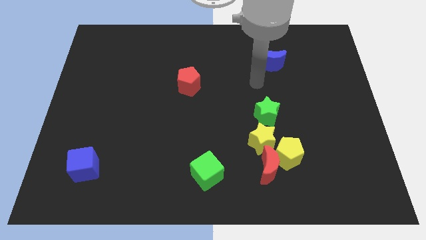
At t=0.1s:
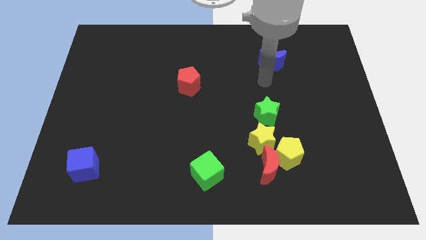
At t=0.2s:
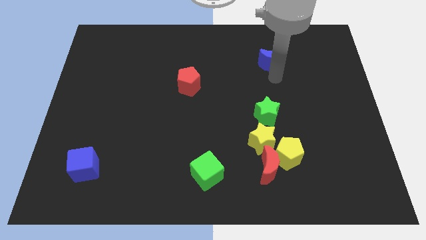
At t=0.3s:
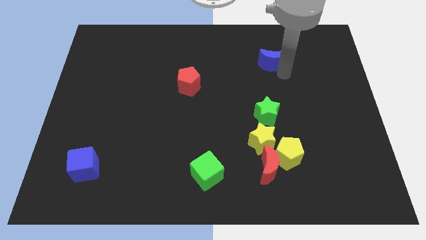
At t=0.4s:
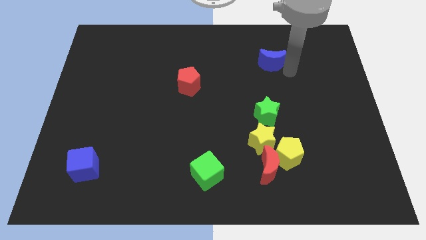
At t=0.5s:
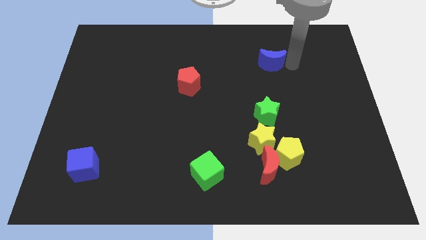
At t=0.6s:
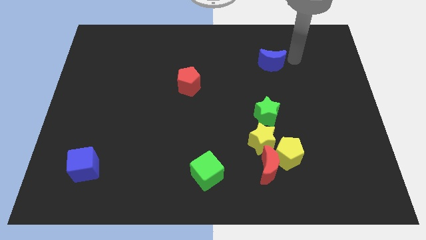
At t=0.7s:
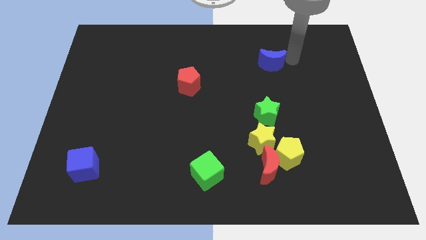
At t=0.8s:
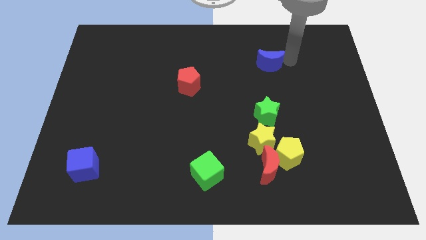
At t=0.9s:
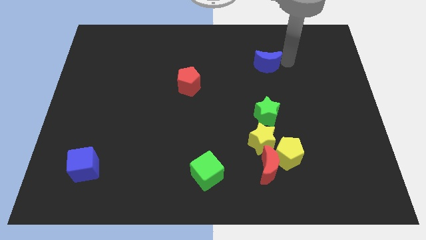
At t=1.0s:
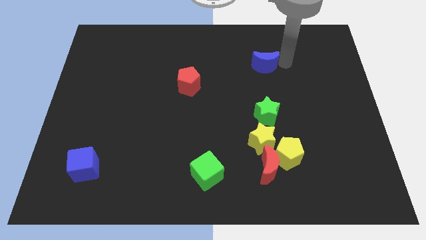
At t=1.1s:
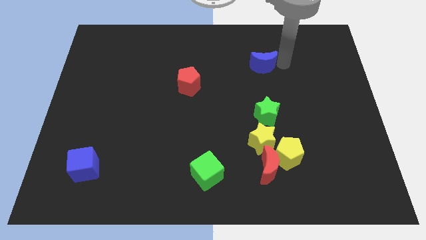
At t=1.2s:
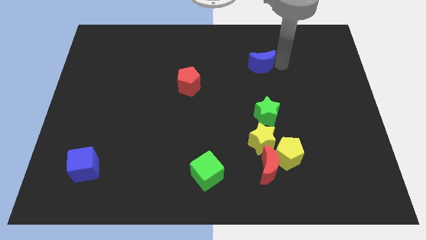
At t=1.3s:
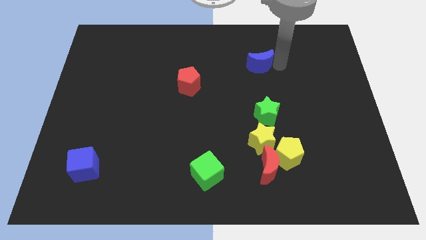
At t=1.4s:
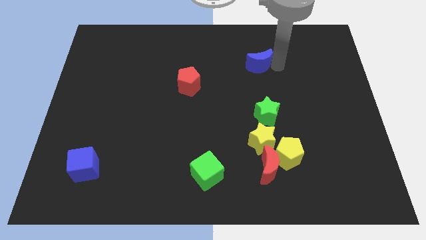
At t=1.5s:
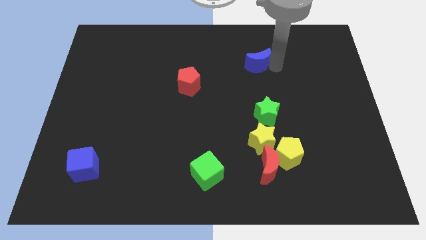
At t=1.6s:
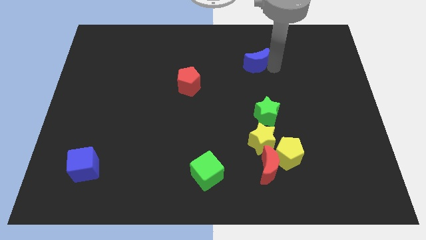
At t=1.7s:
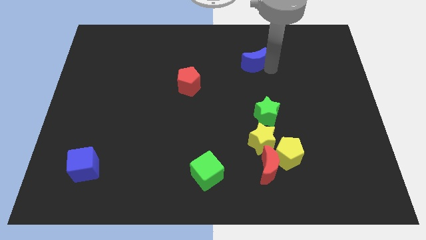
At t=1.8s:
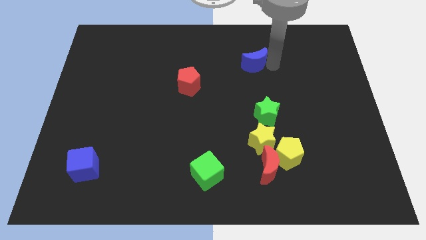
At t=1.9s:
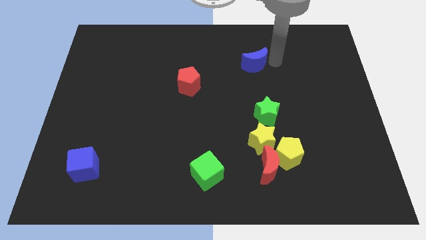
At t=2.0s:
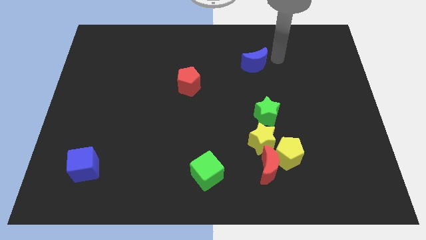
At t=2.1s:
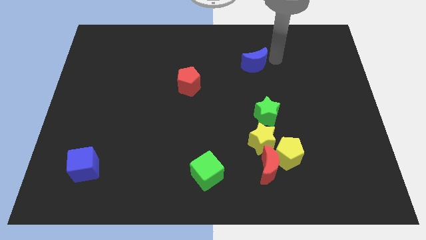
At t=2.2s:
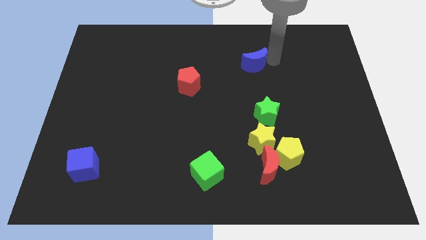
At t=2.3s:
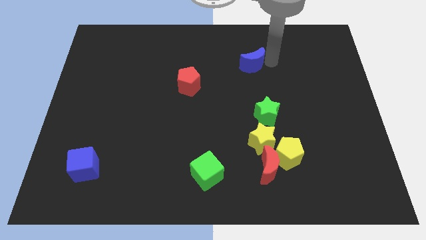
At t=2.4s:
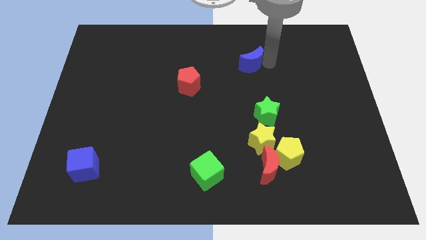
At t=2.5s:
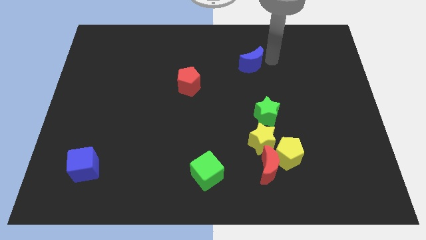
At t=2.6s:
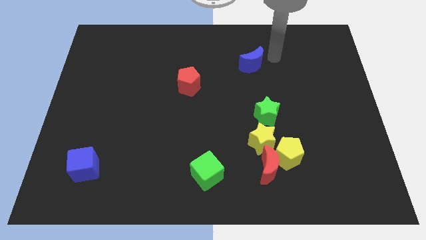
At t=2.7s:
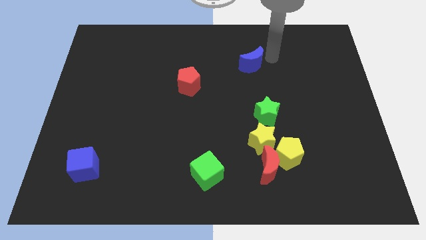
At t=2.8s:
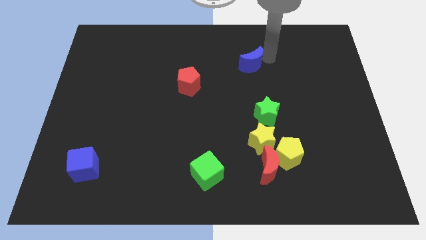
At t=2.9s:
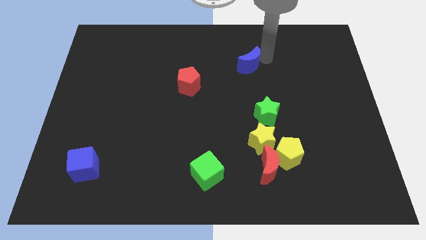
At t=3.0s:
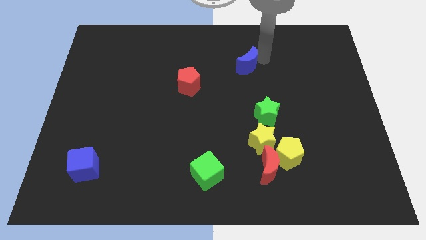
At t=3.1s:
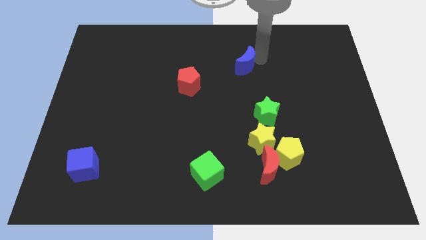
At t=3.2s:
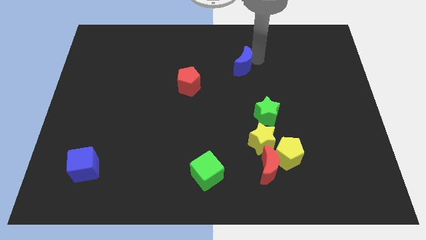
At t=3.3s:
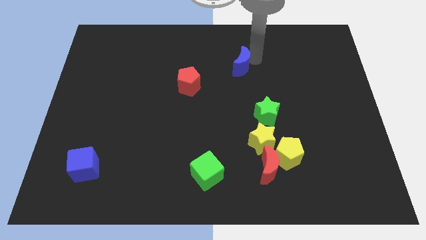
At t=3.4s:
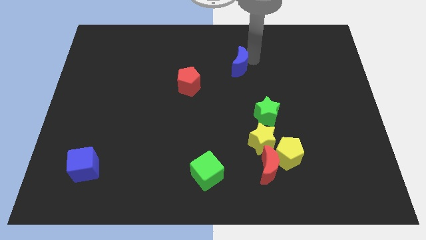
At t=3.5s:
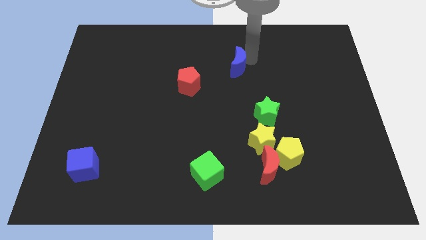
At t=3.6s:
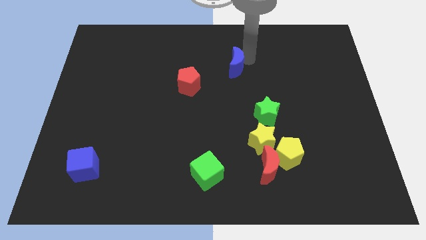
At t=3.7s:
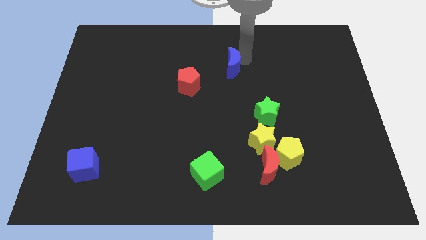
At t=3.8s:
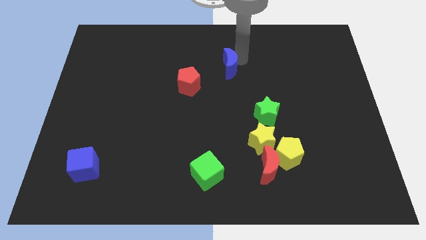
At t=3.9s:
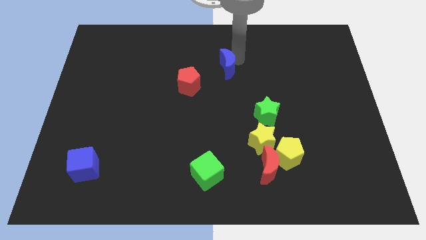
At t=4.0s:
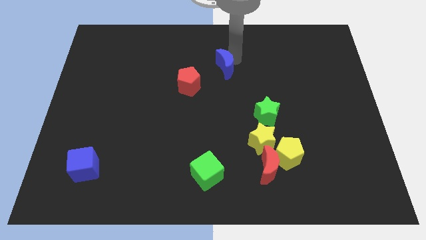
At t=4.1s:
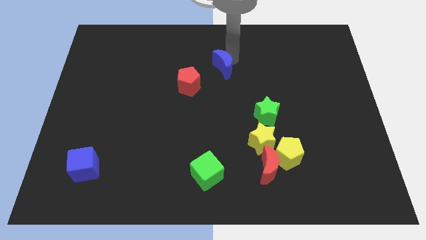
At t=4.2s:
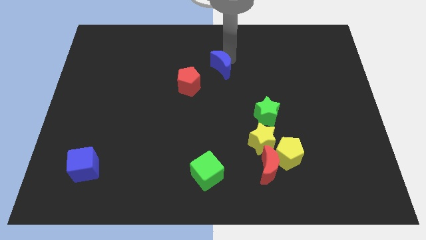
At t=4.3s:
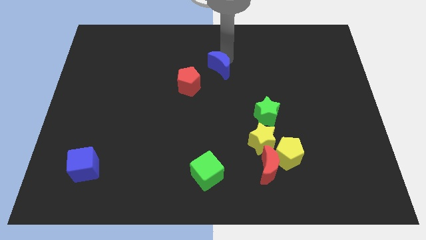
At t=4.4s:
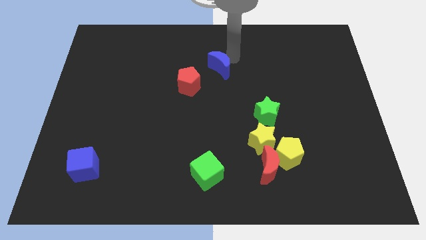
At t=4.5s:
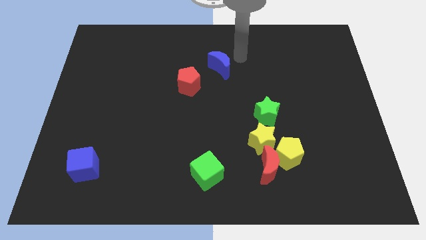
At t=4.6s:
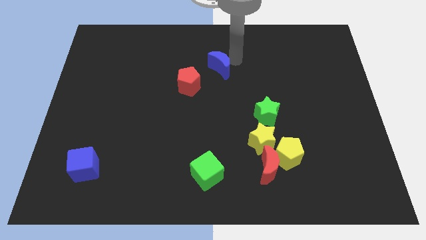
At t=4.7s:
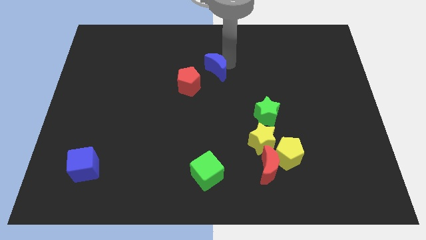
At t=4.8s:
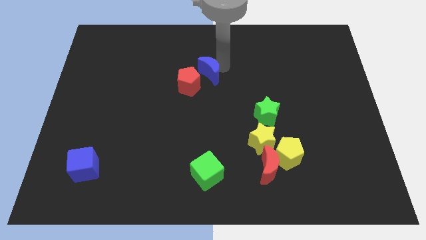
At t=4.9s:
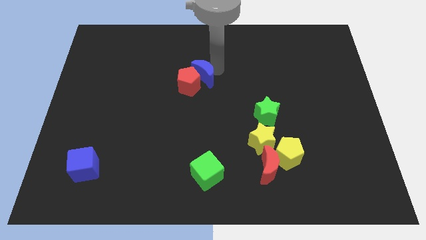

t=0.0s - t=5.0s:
put the blue moon towards the red pentagon

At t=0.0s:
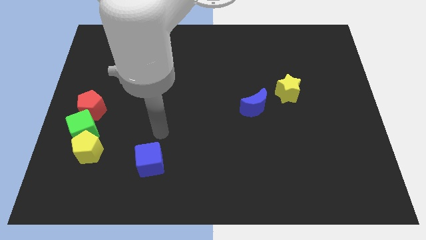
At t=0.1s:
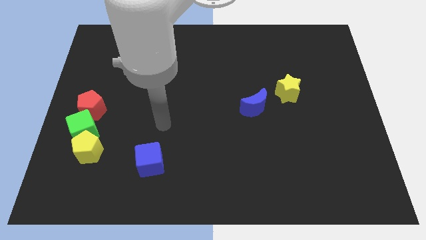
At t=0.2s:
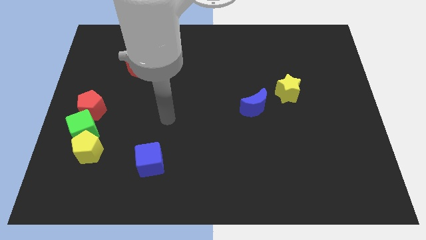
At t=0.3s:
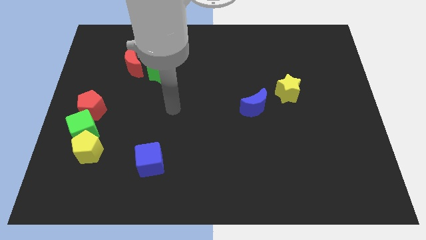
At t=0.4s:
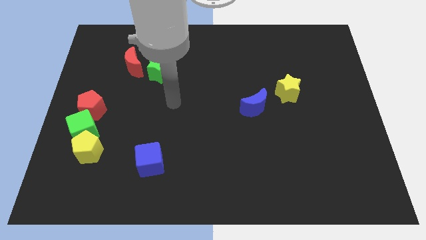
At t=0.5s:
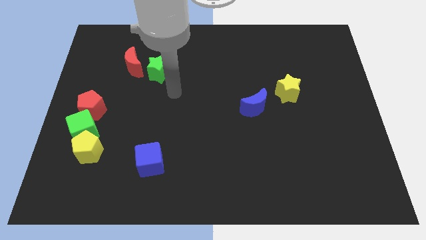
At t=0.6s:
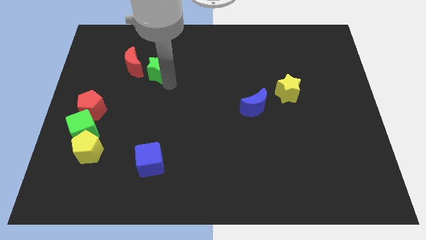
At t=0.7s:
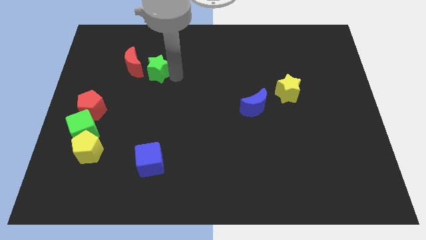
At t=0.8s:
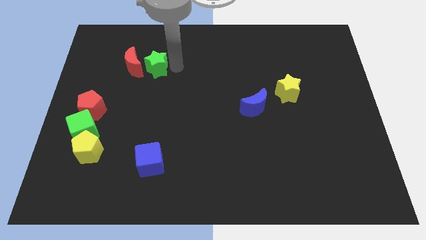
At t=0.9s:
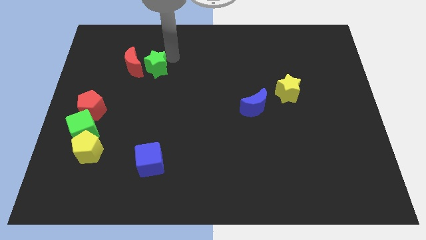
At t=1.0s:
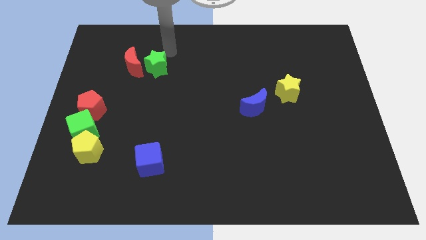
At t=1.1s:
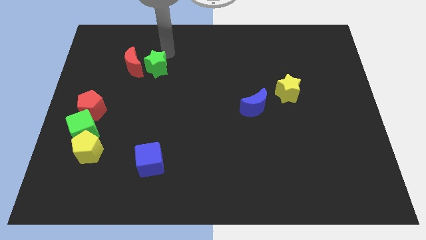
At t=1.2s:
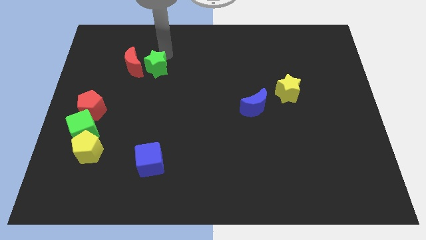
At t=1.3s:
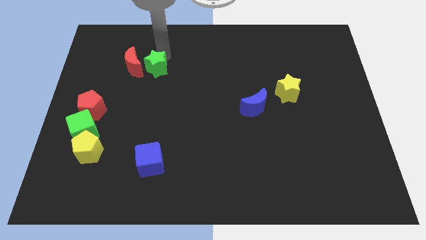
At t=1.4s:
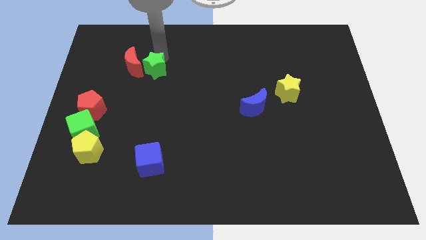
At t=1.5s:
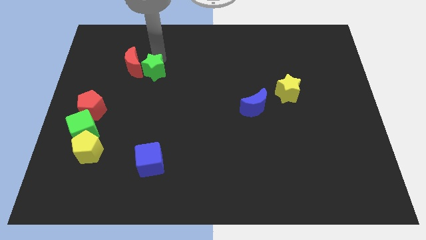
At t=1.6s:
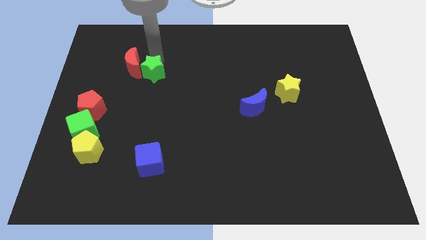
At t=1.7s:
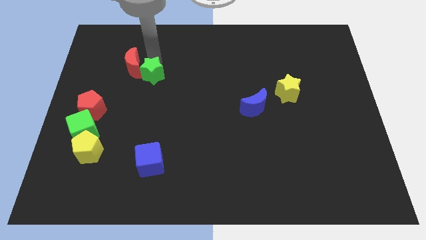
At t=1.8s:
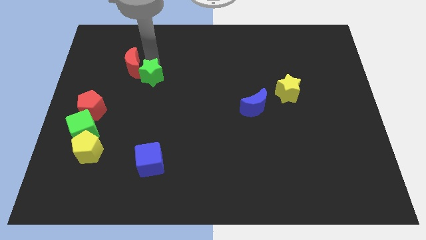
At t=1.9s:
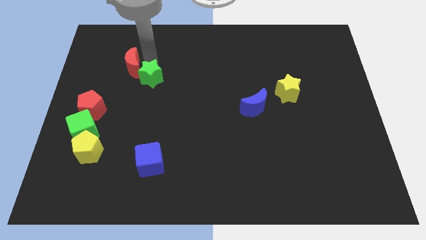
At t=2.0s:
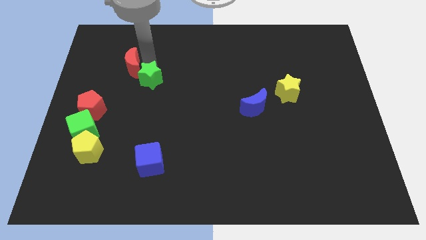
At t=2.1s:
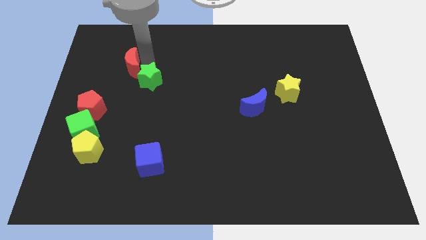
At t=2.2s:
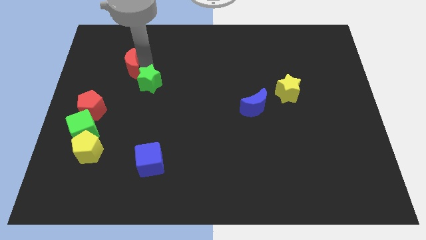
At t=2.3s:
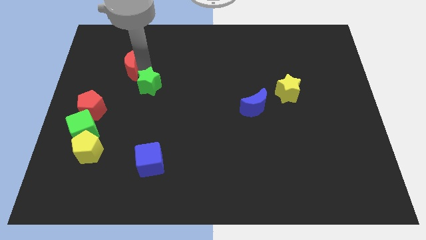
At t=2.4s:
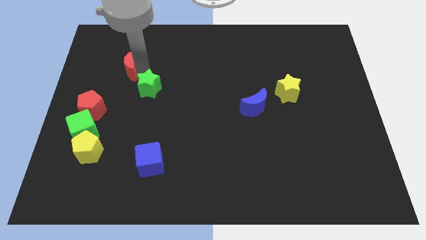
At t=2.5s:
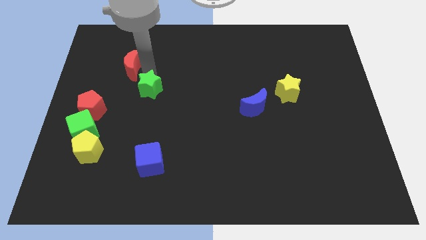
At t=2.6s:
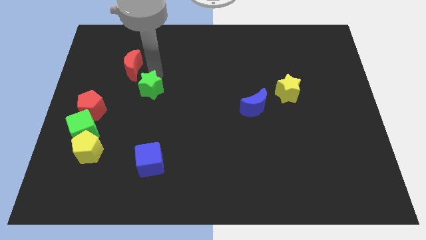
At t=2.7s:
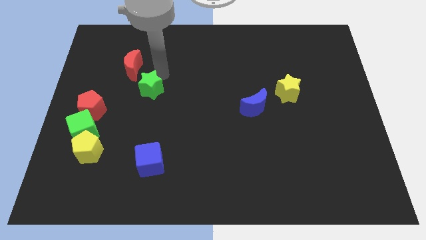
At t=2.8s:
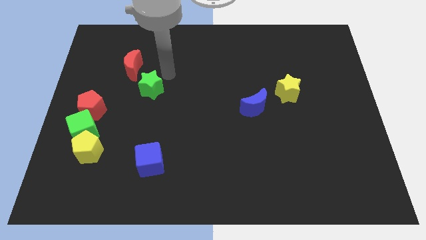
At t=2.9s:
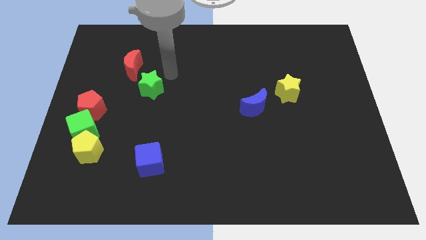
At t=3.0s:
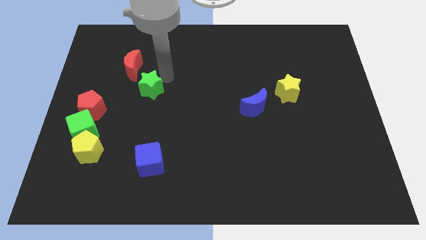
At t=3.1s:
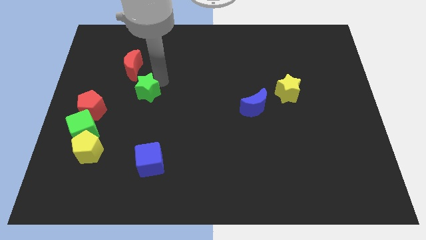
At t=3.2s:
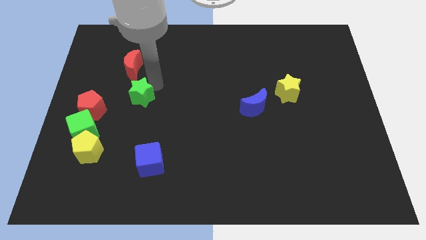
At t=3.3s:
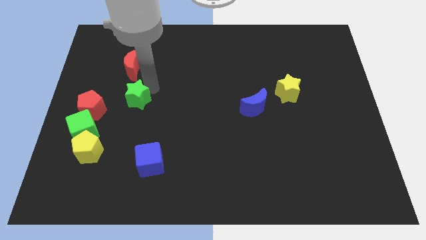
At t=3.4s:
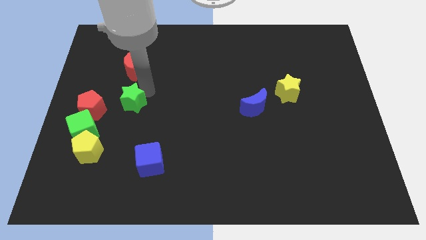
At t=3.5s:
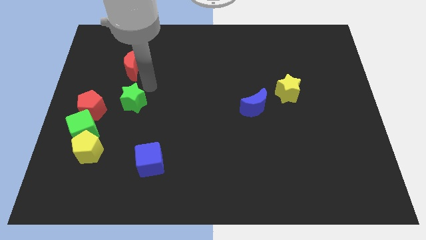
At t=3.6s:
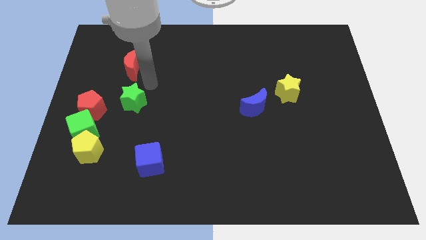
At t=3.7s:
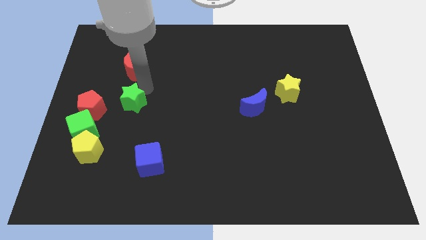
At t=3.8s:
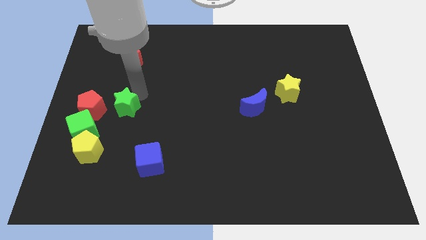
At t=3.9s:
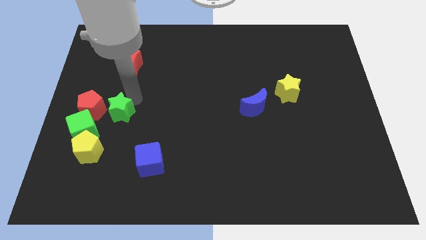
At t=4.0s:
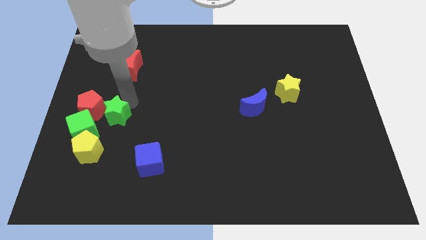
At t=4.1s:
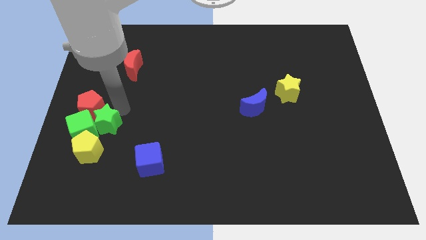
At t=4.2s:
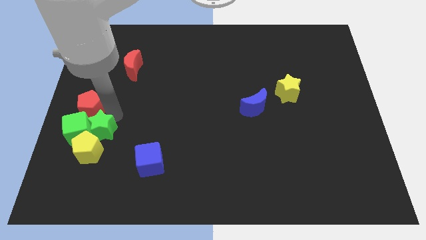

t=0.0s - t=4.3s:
push the green star close to the yellow pentagon
